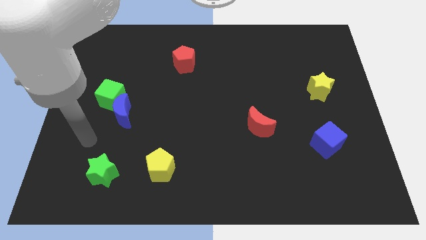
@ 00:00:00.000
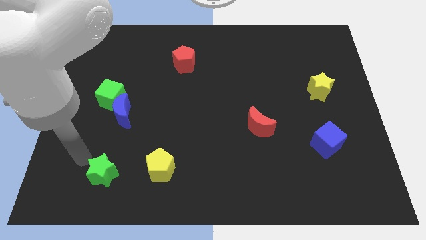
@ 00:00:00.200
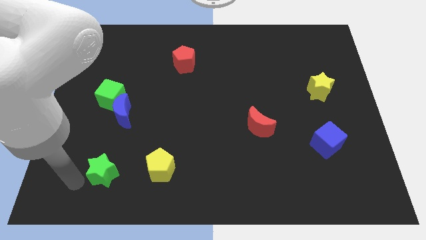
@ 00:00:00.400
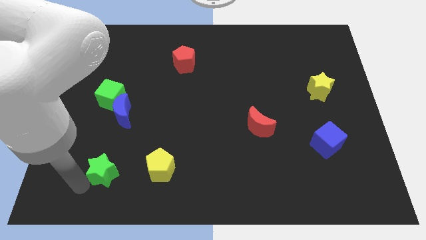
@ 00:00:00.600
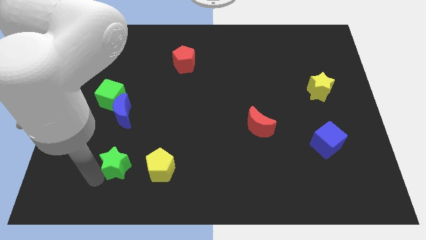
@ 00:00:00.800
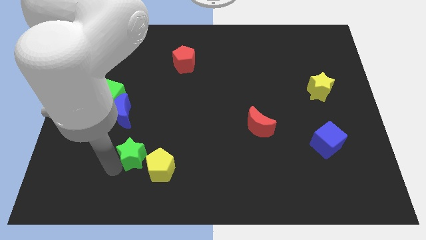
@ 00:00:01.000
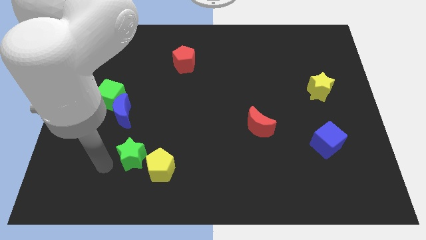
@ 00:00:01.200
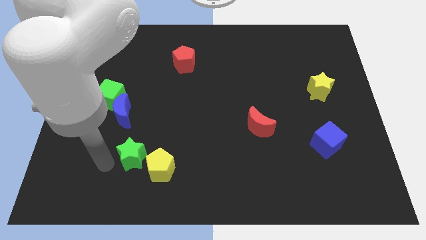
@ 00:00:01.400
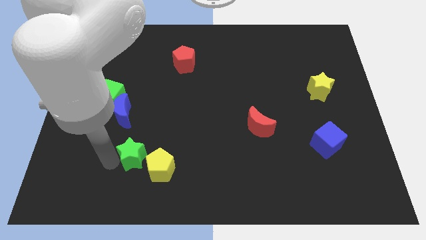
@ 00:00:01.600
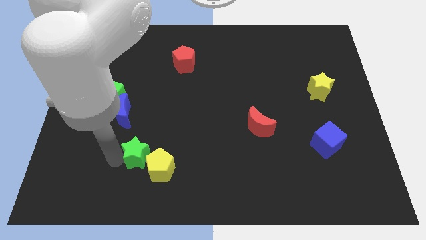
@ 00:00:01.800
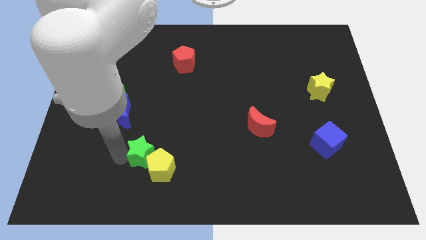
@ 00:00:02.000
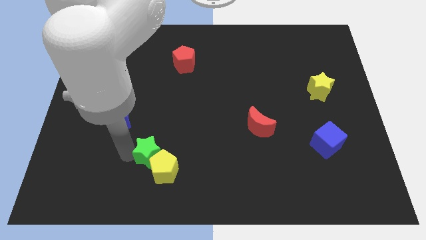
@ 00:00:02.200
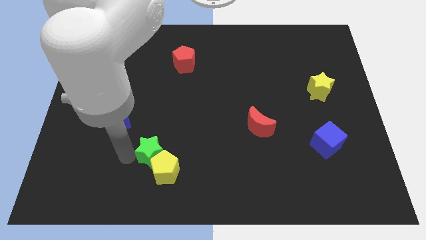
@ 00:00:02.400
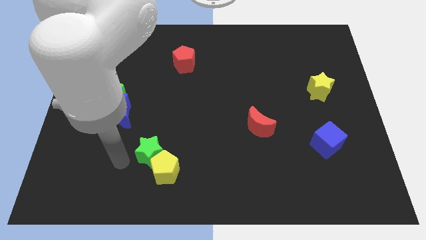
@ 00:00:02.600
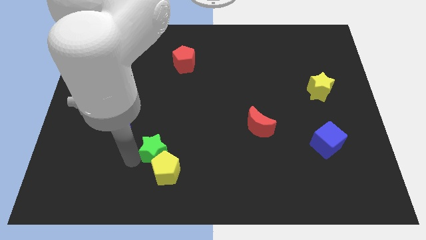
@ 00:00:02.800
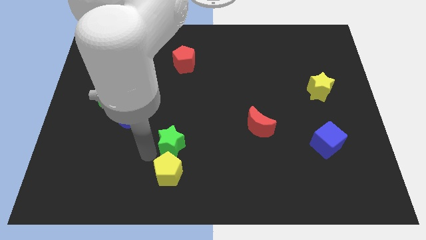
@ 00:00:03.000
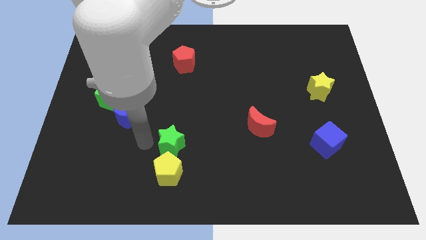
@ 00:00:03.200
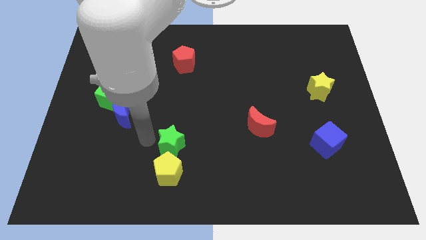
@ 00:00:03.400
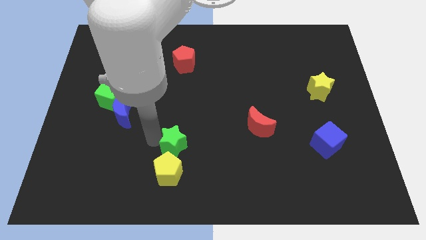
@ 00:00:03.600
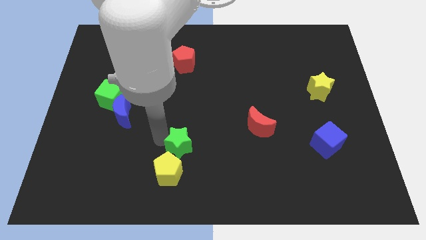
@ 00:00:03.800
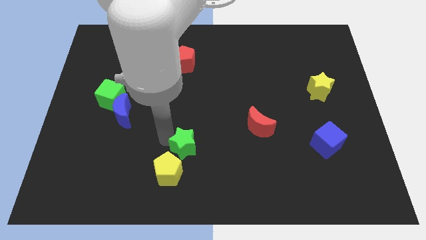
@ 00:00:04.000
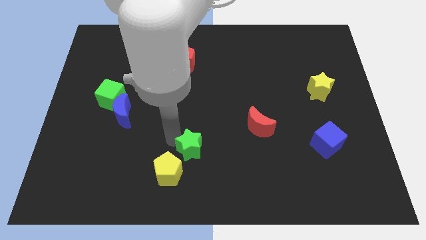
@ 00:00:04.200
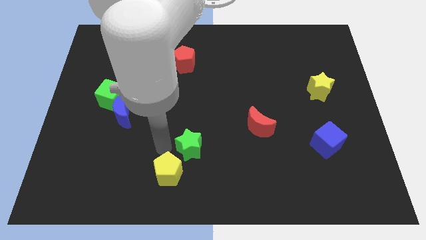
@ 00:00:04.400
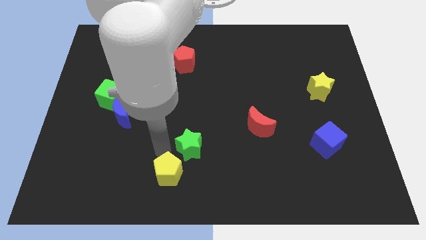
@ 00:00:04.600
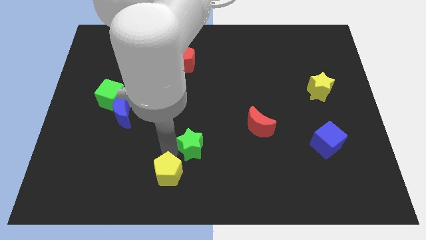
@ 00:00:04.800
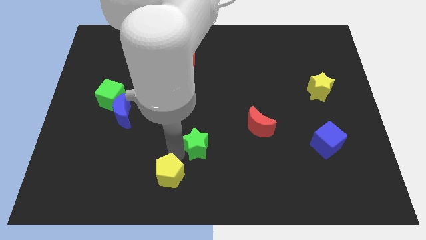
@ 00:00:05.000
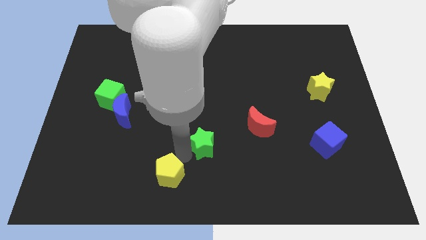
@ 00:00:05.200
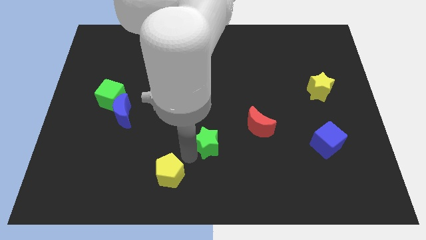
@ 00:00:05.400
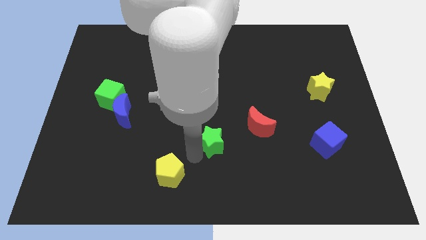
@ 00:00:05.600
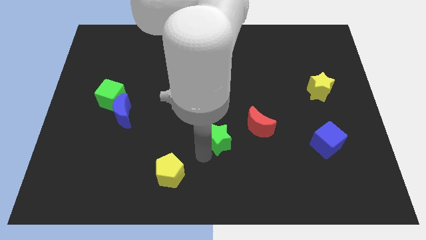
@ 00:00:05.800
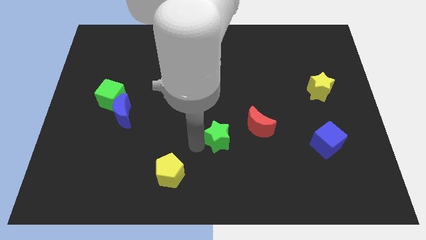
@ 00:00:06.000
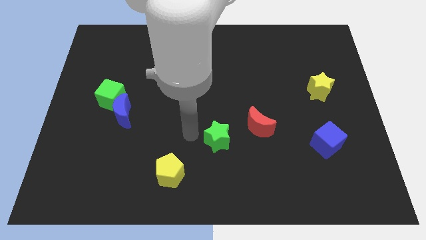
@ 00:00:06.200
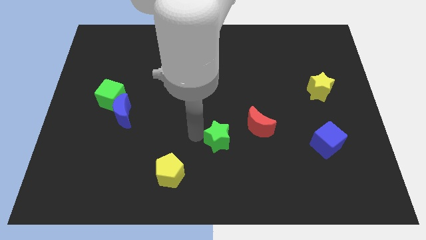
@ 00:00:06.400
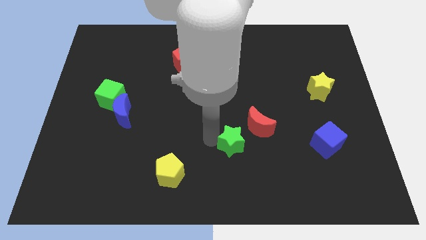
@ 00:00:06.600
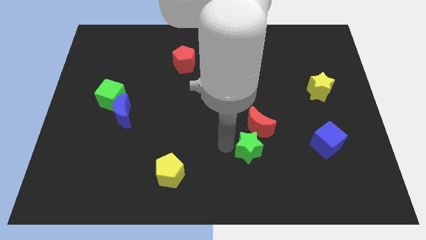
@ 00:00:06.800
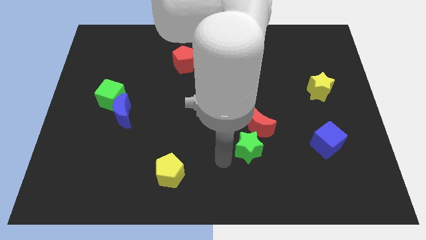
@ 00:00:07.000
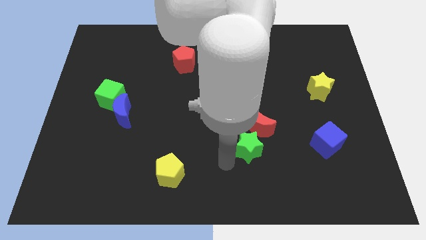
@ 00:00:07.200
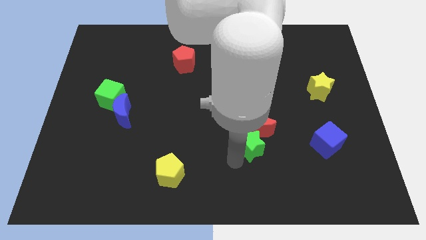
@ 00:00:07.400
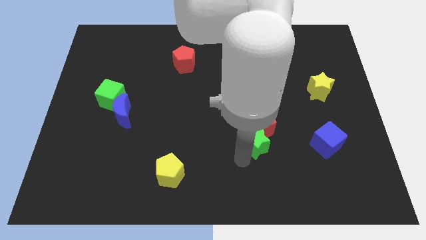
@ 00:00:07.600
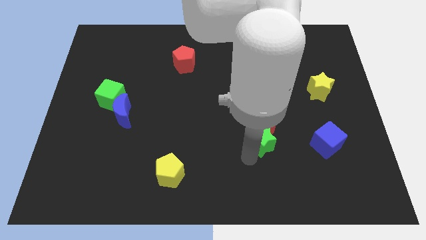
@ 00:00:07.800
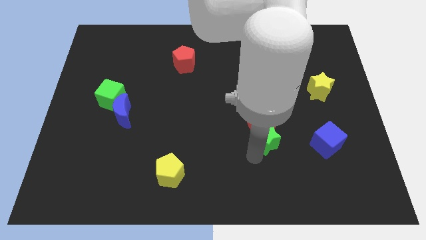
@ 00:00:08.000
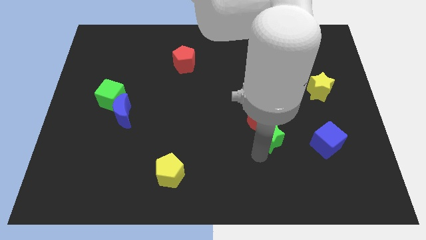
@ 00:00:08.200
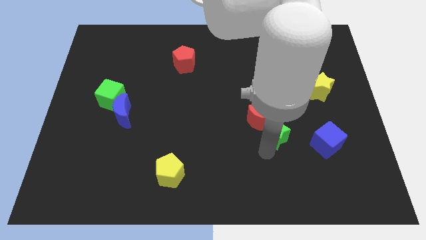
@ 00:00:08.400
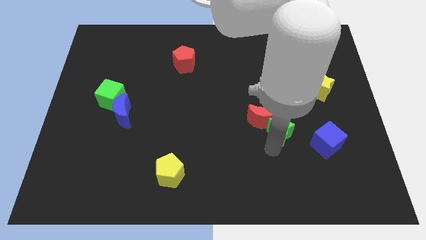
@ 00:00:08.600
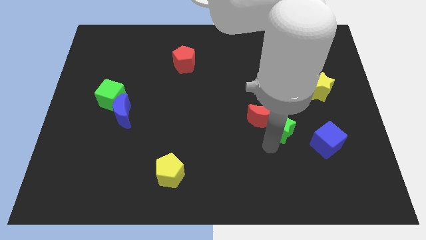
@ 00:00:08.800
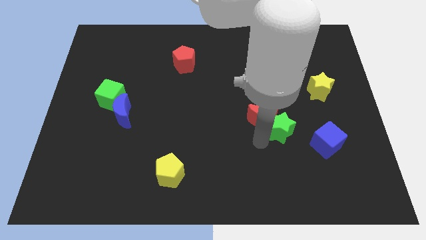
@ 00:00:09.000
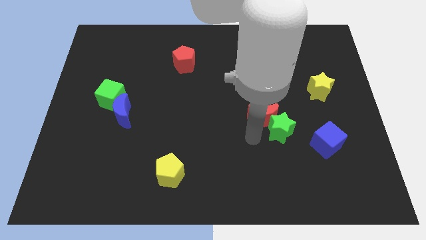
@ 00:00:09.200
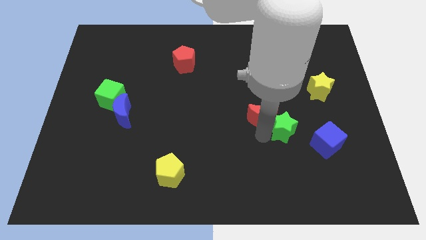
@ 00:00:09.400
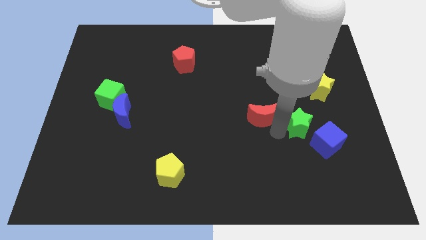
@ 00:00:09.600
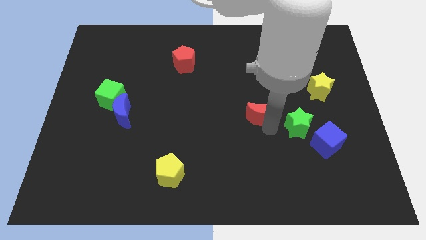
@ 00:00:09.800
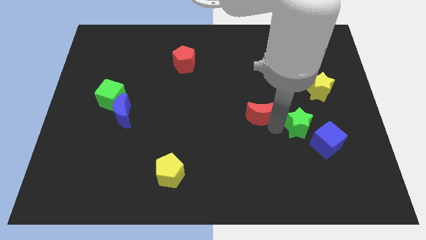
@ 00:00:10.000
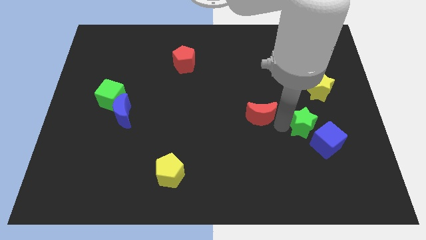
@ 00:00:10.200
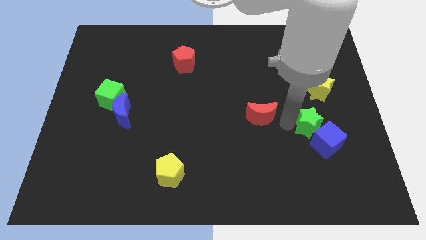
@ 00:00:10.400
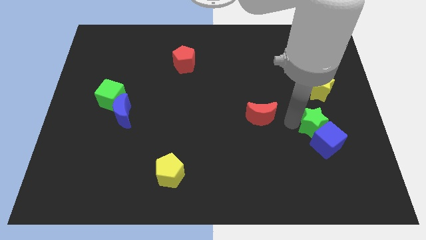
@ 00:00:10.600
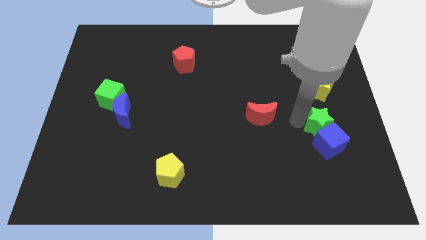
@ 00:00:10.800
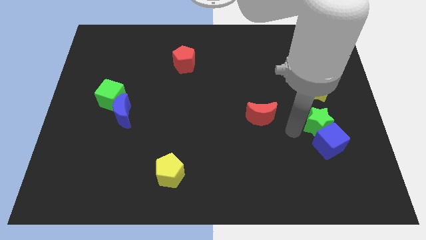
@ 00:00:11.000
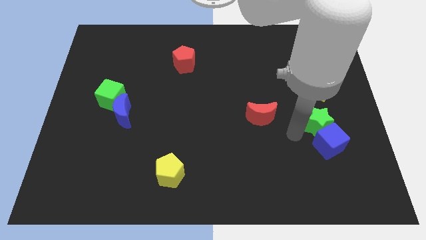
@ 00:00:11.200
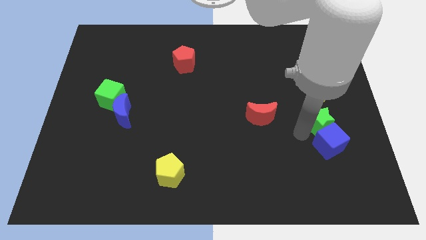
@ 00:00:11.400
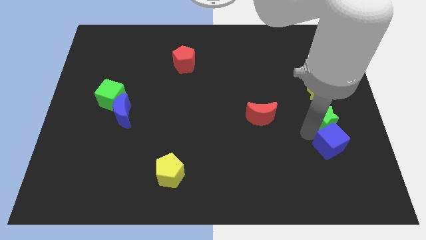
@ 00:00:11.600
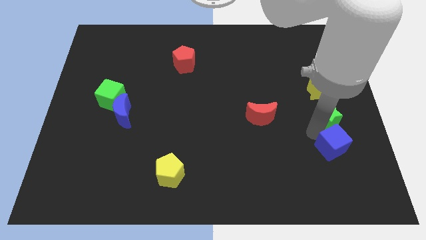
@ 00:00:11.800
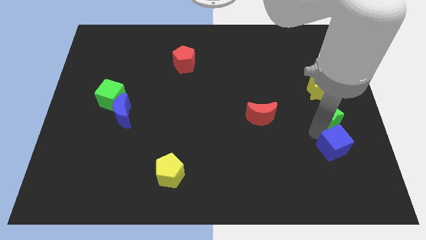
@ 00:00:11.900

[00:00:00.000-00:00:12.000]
put the green star to the right side of the board

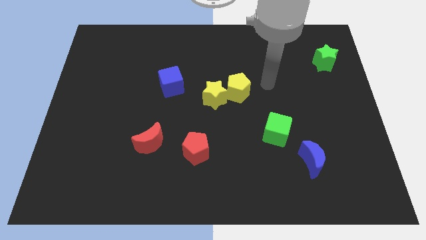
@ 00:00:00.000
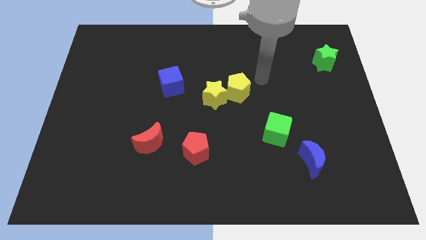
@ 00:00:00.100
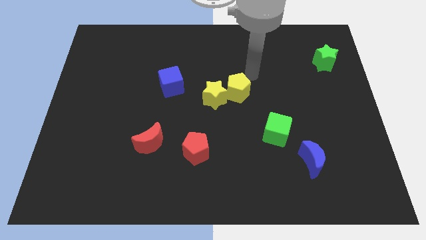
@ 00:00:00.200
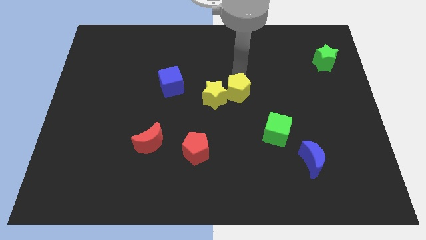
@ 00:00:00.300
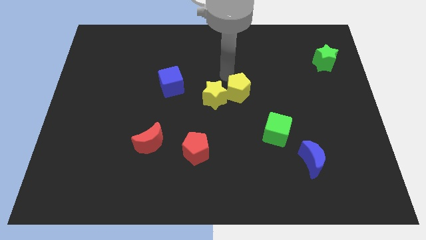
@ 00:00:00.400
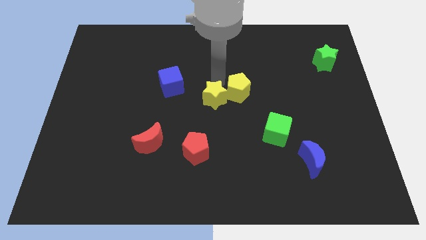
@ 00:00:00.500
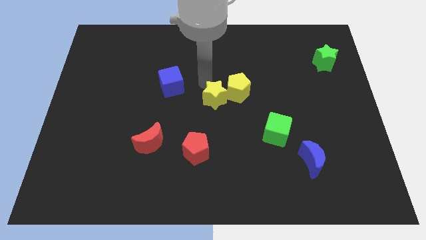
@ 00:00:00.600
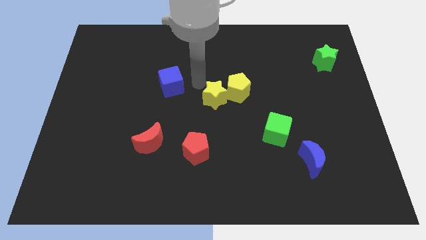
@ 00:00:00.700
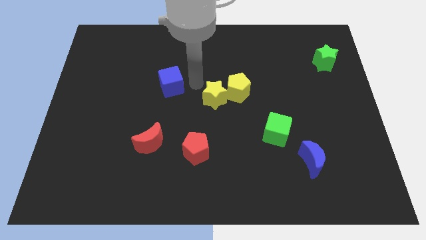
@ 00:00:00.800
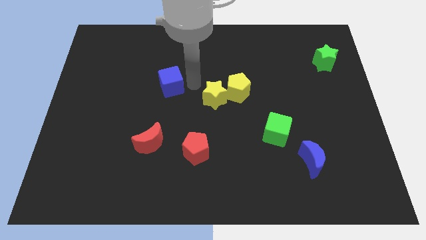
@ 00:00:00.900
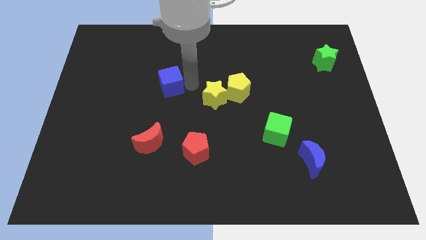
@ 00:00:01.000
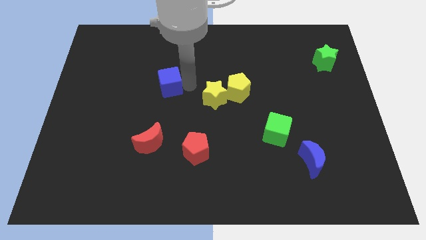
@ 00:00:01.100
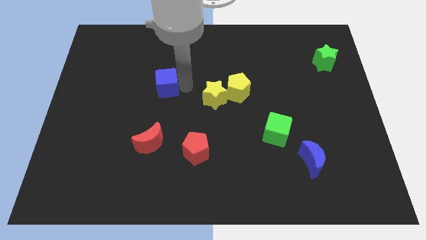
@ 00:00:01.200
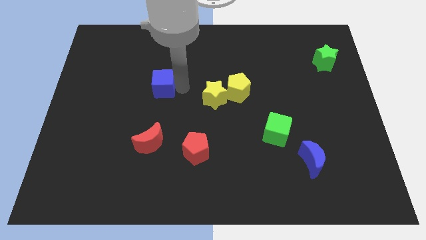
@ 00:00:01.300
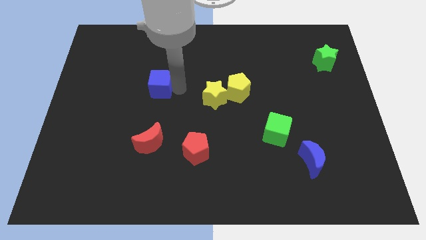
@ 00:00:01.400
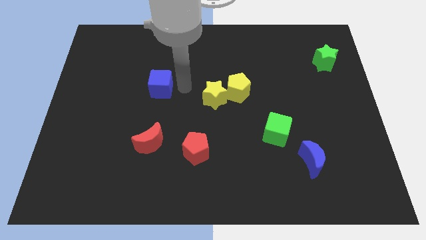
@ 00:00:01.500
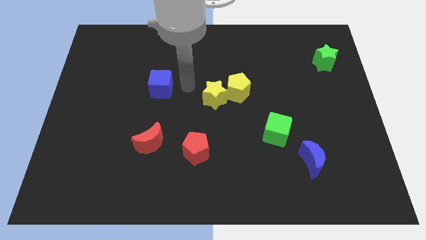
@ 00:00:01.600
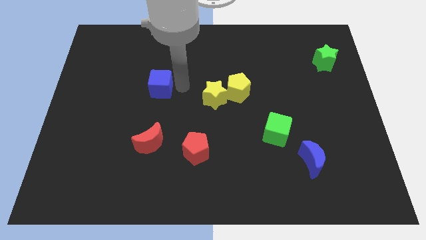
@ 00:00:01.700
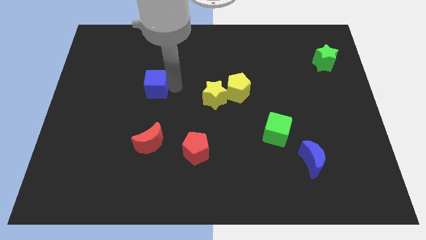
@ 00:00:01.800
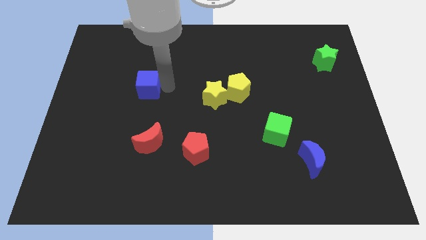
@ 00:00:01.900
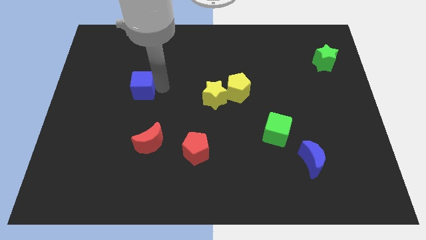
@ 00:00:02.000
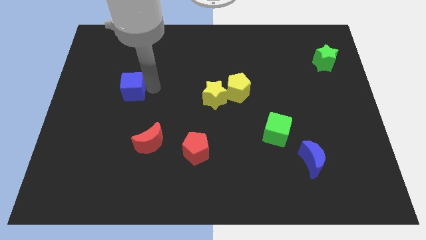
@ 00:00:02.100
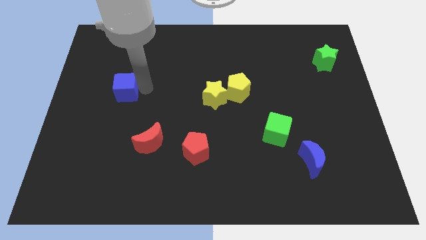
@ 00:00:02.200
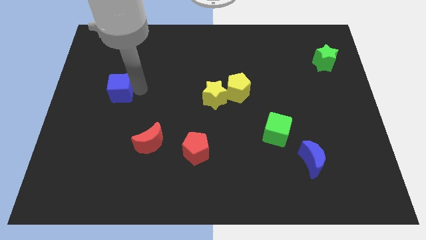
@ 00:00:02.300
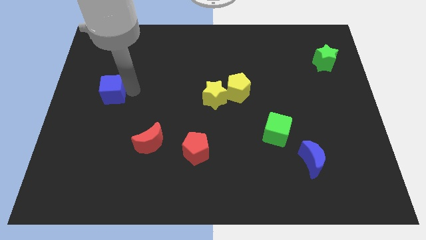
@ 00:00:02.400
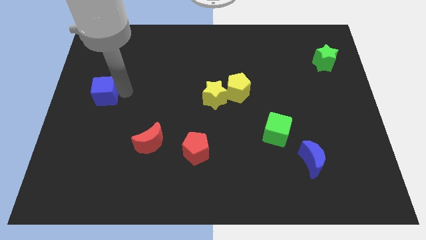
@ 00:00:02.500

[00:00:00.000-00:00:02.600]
put the blue cube to the center left
